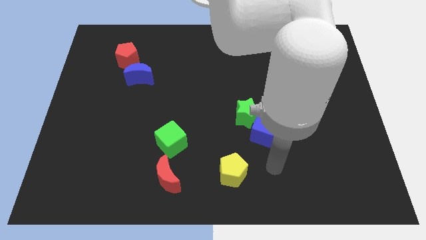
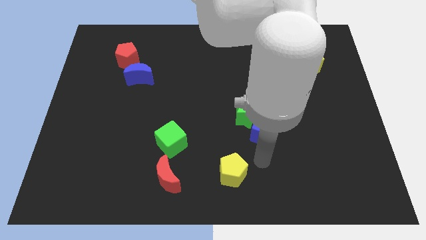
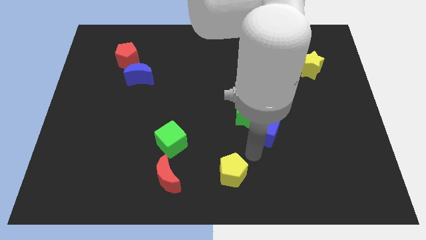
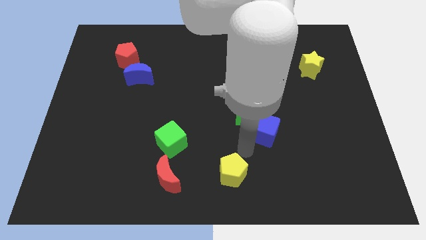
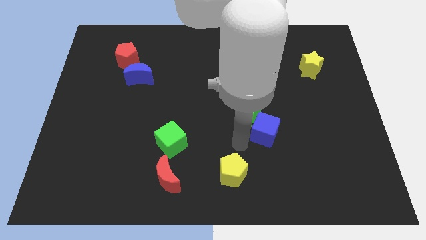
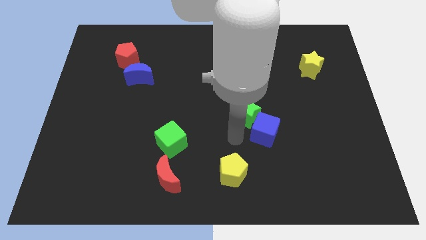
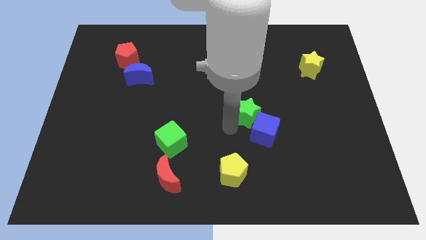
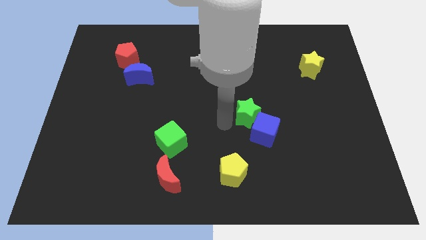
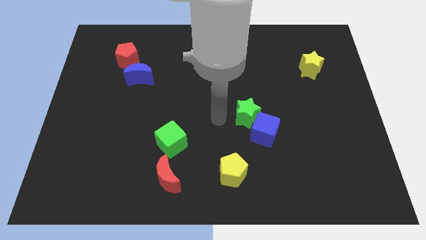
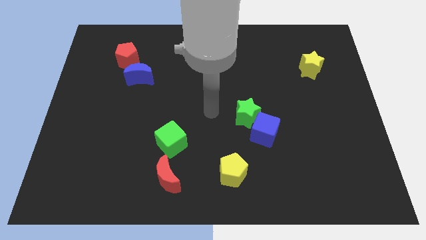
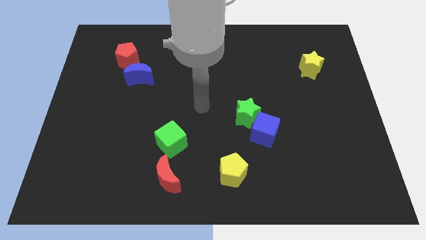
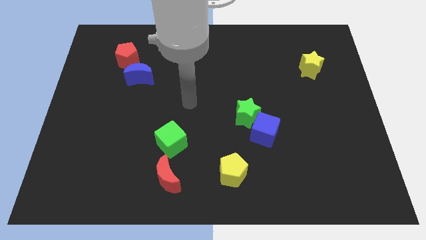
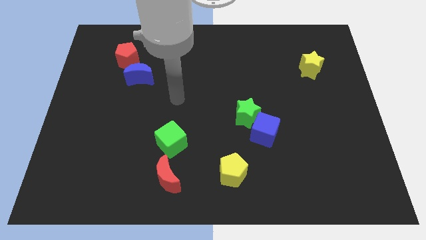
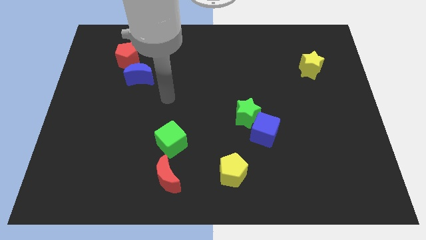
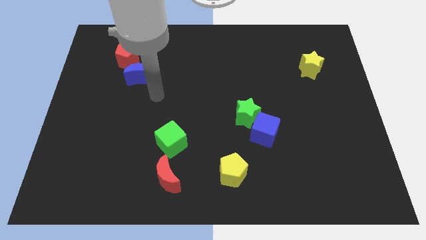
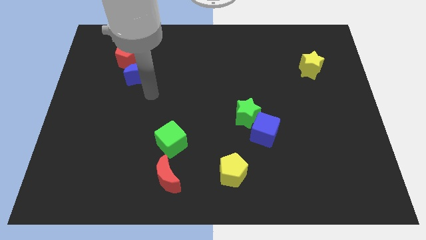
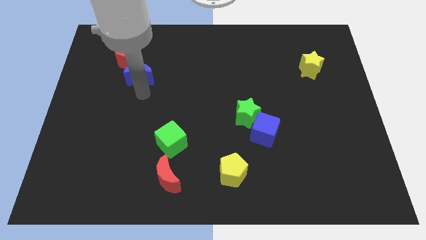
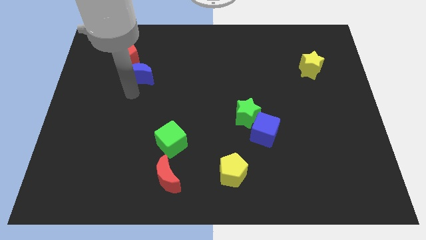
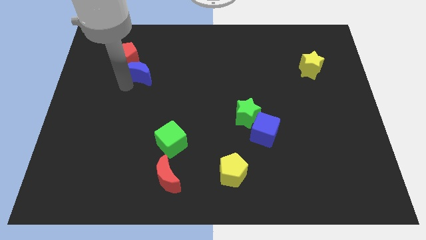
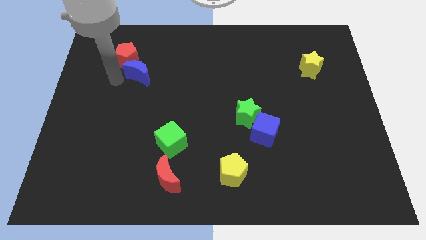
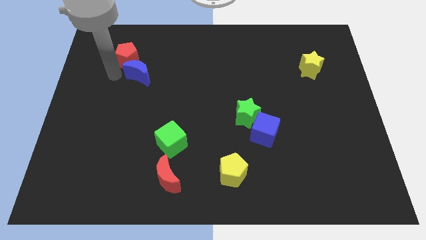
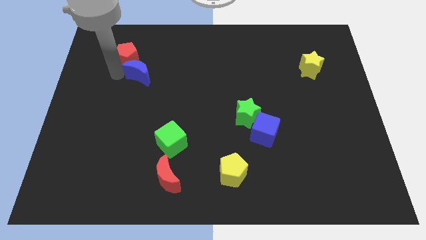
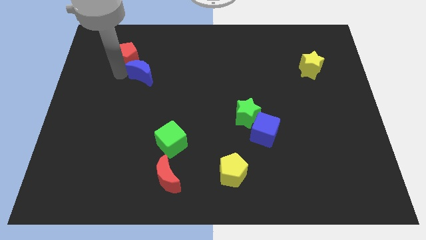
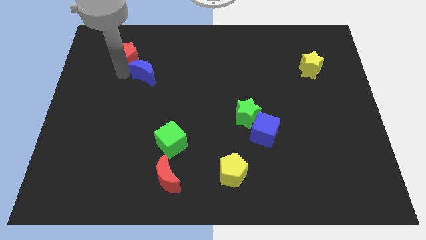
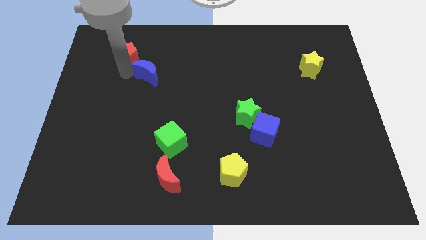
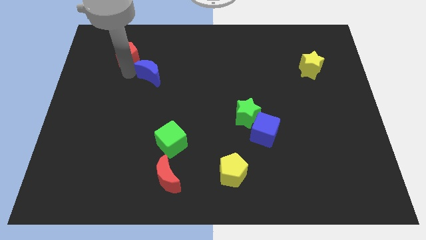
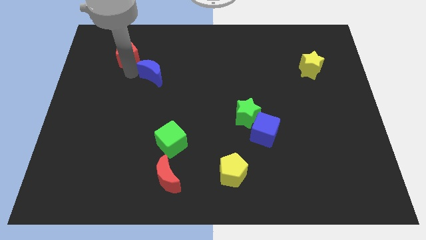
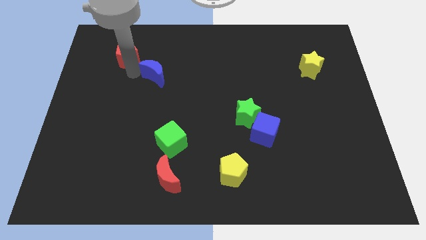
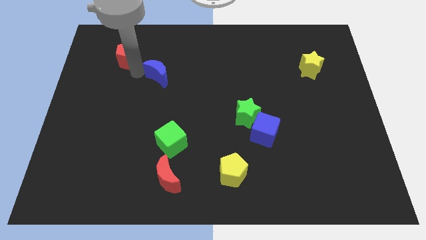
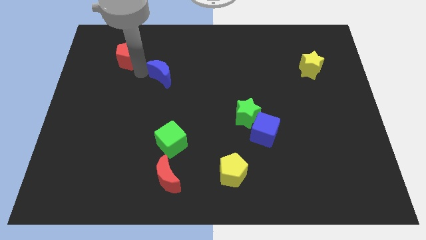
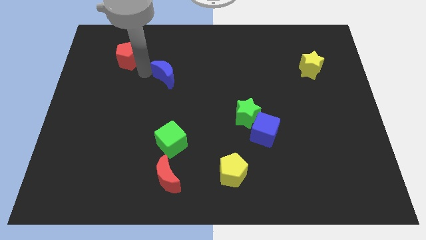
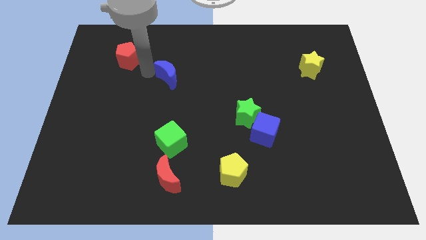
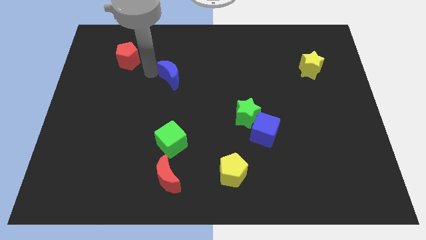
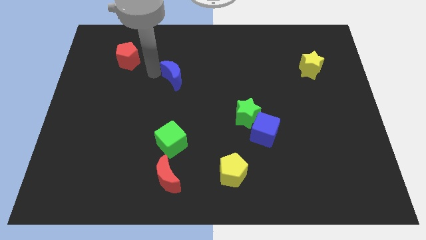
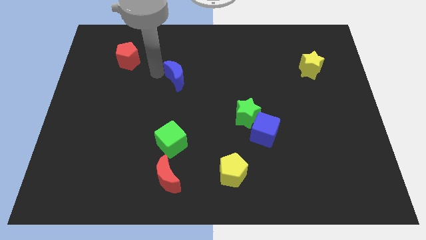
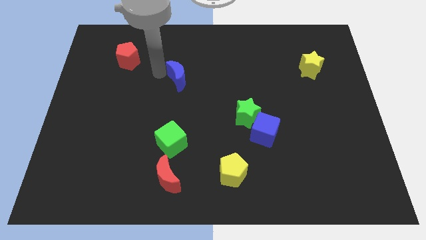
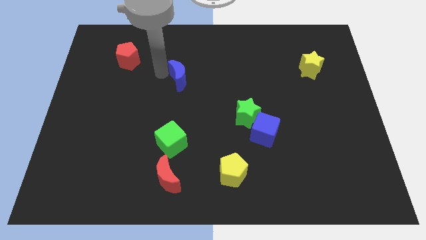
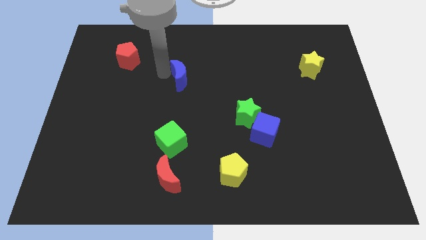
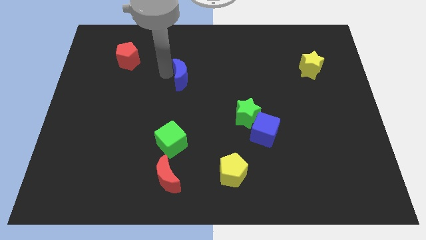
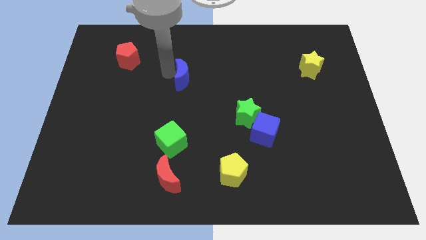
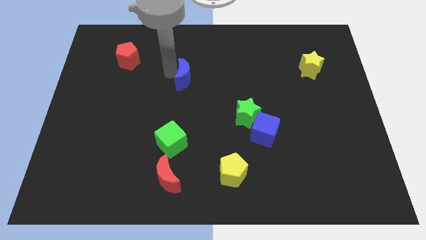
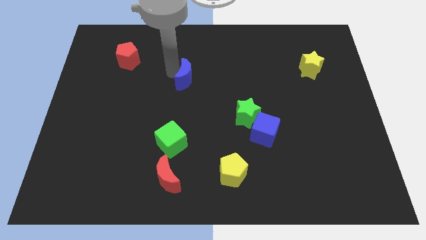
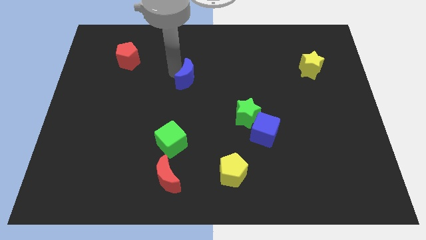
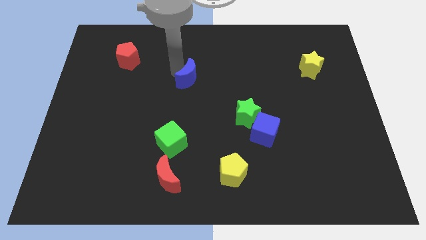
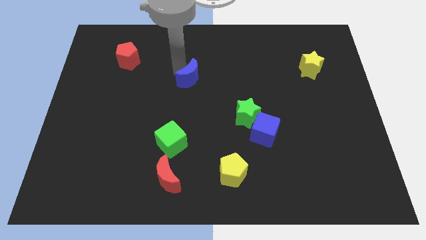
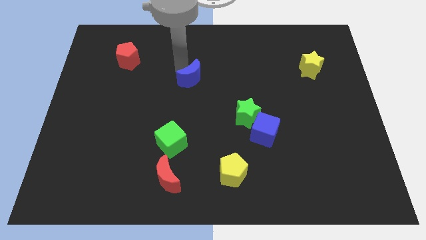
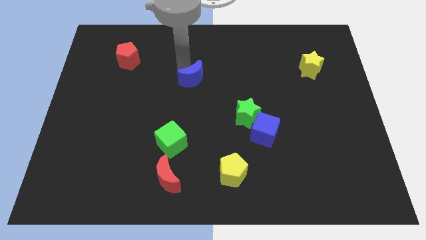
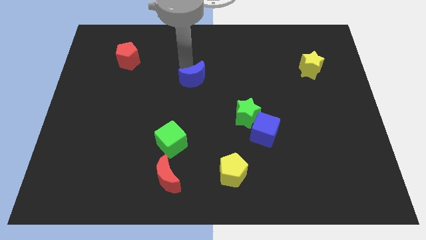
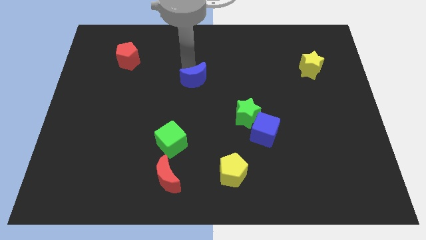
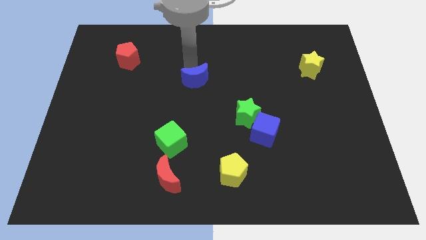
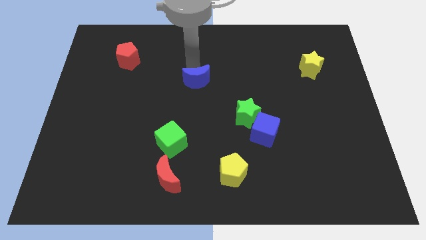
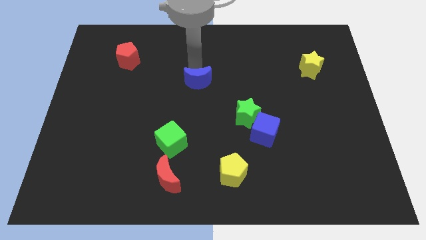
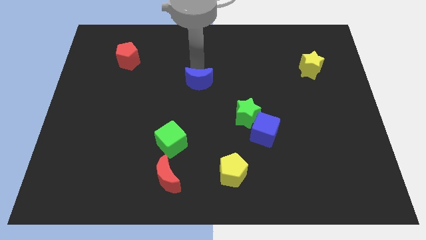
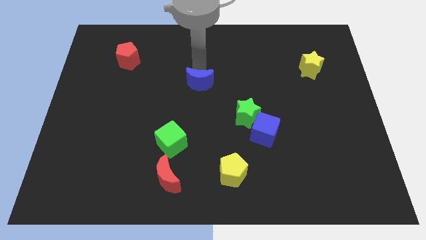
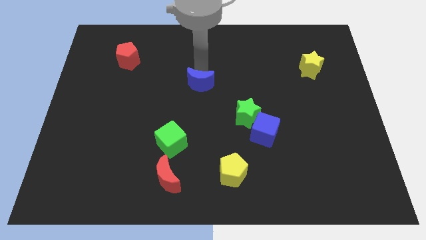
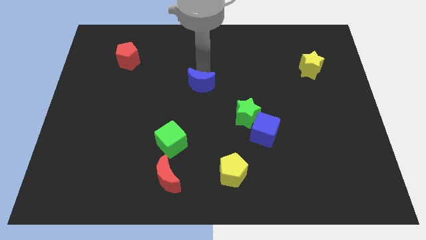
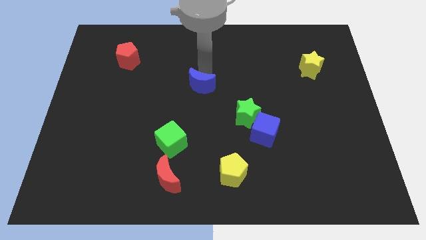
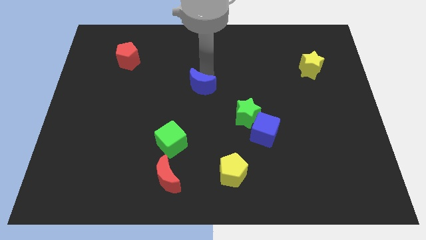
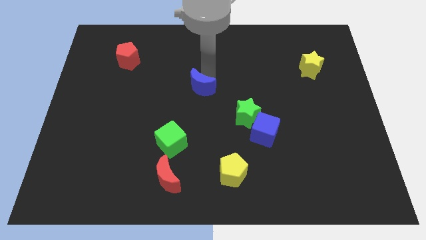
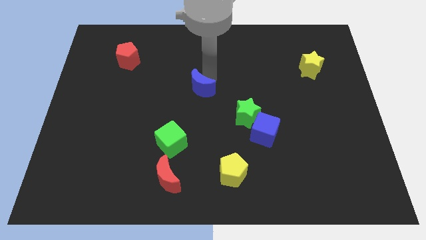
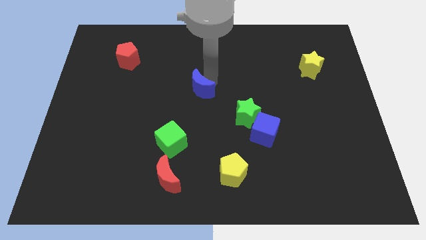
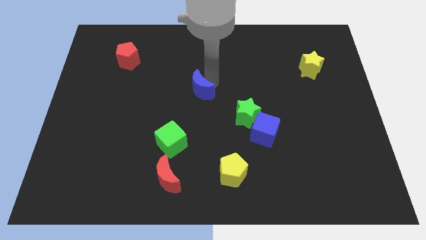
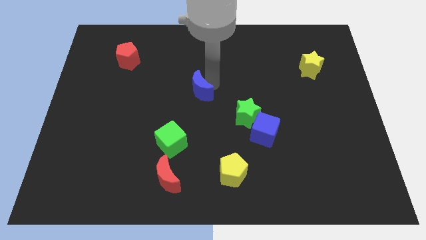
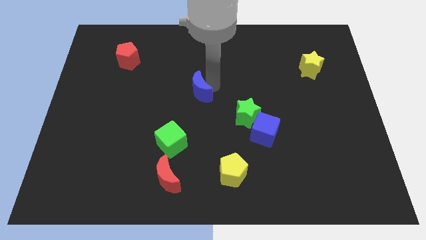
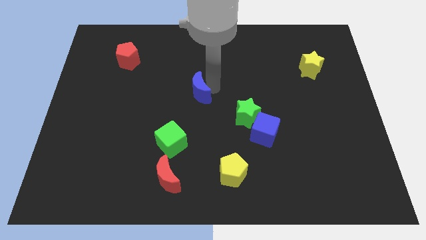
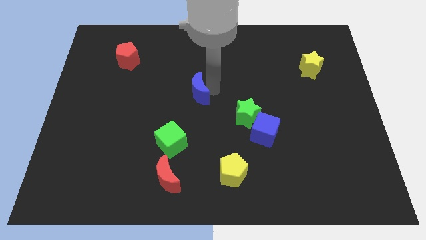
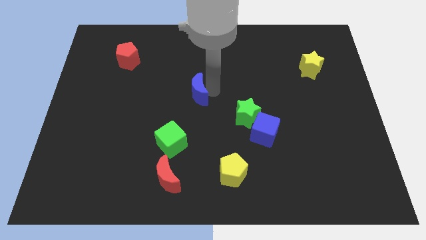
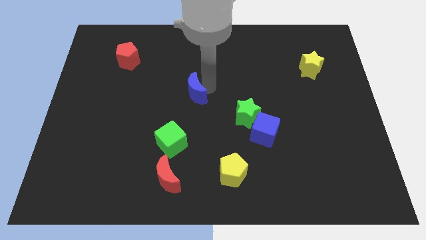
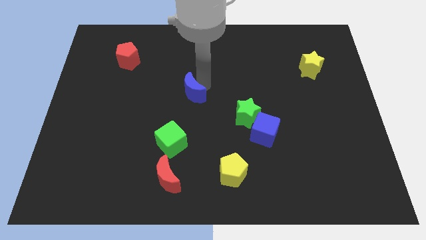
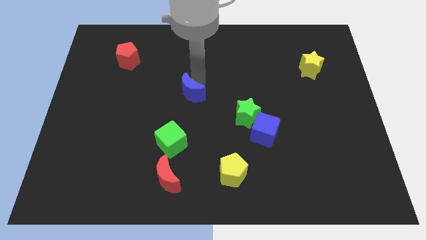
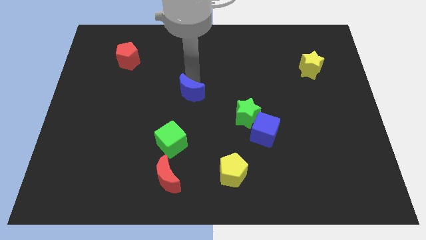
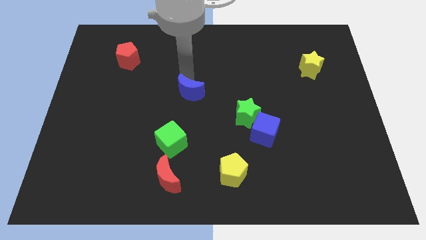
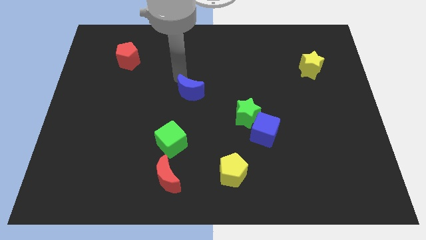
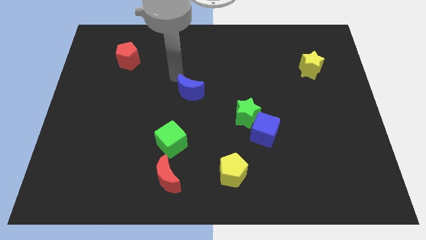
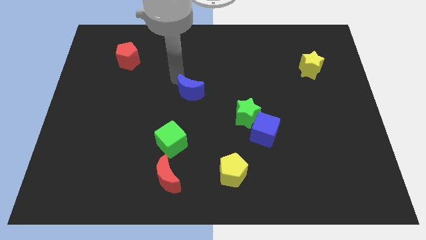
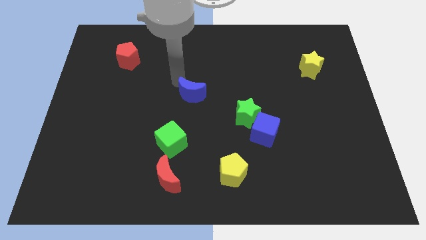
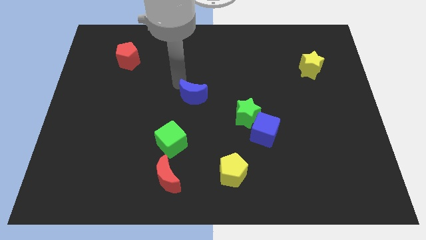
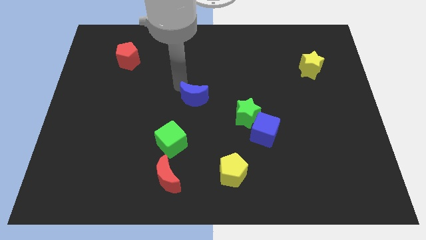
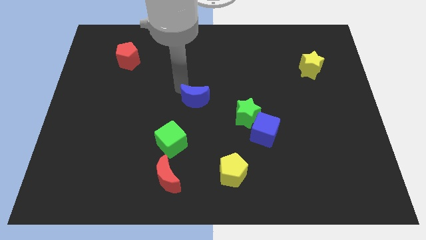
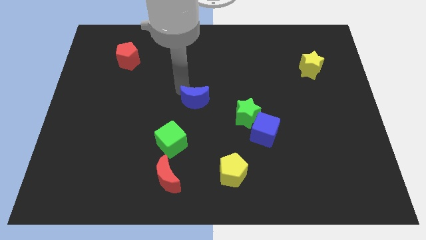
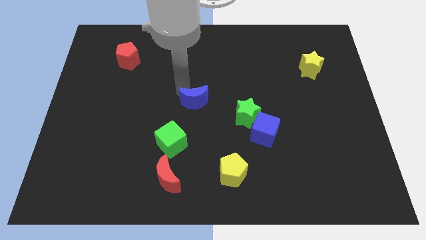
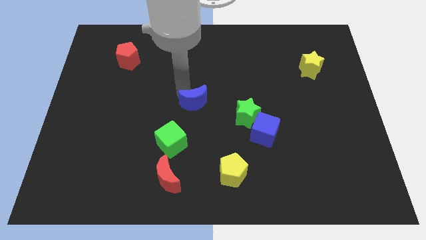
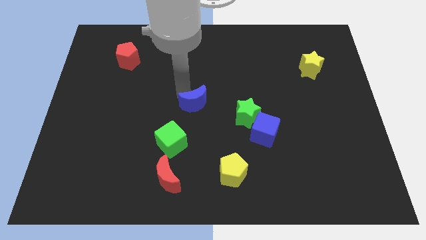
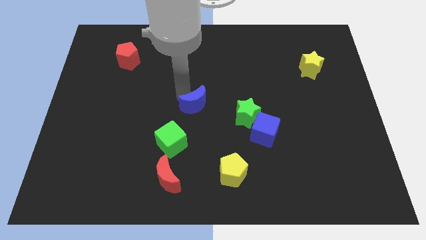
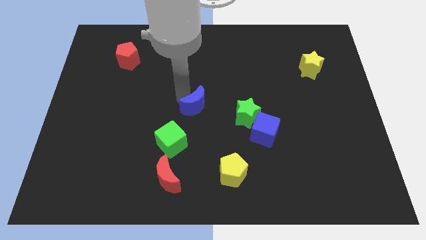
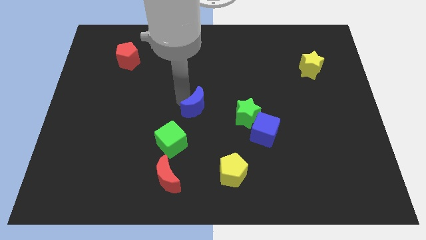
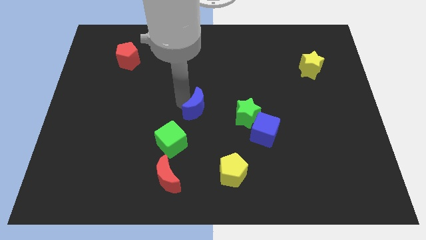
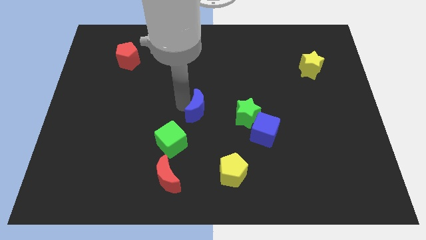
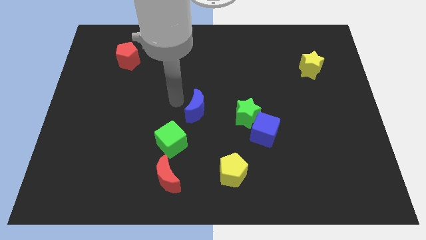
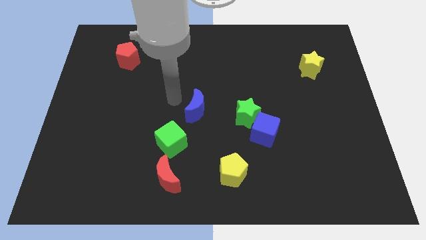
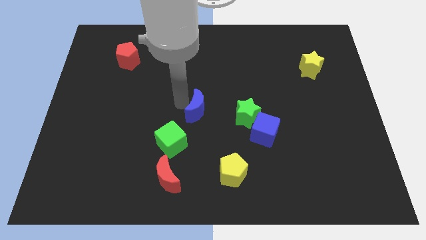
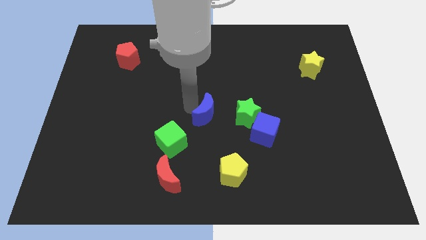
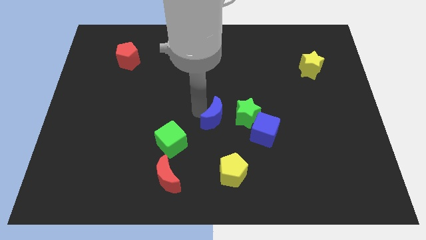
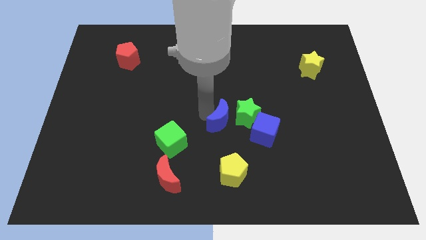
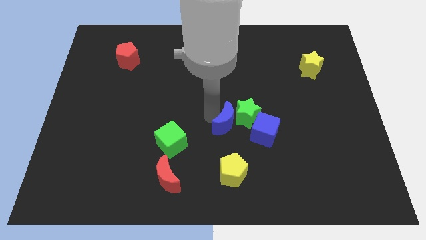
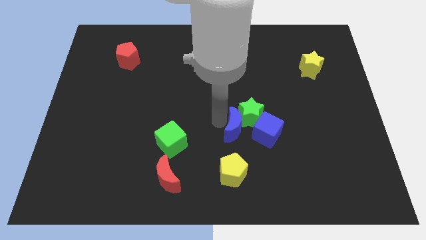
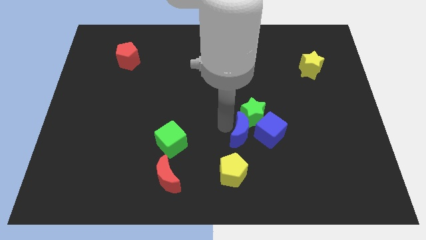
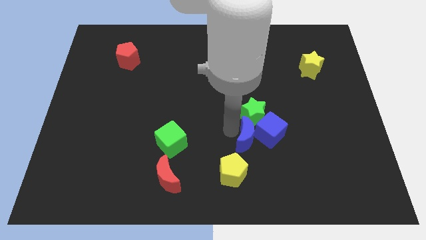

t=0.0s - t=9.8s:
move the blue moon towards the blue cube
